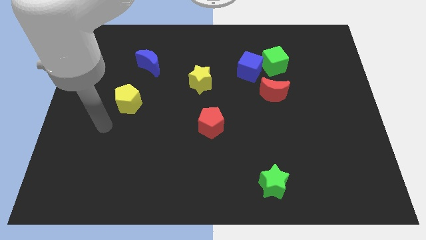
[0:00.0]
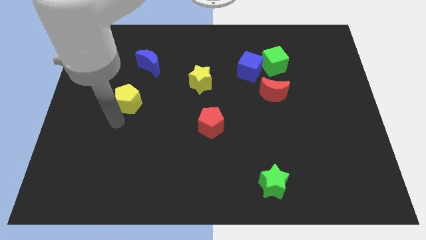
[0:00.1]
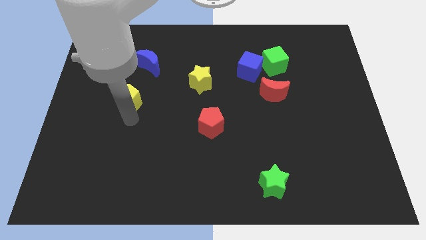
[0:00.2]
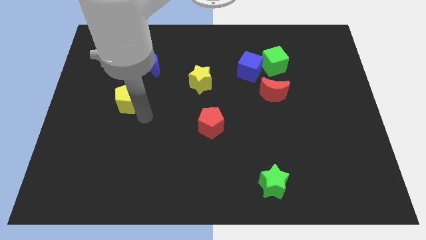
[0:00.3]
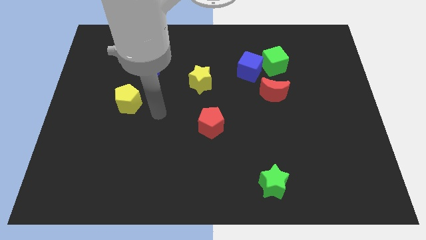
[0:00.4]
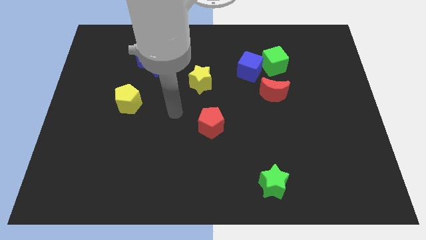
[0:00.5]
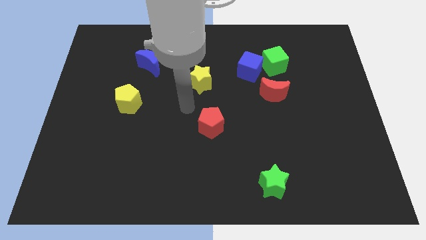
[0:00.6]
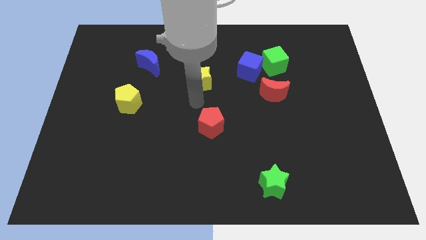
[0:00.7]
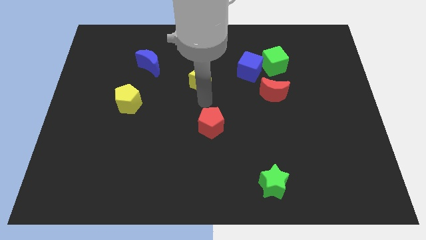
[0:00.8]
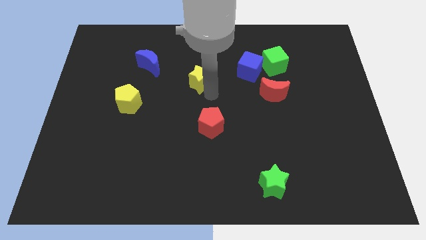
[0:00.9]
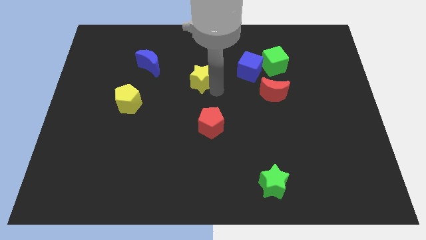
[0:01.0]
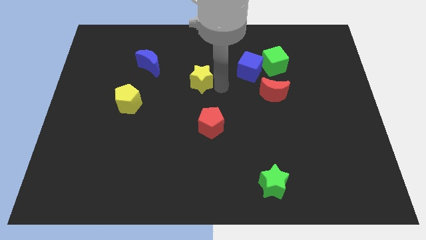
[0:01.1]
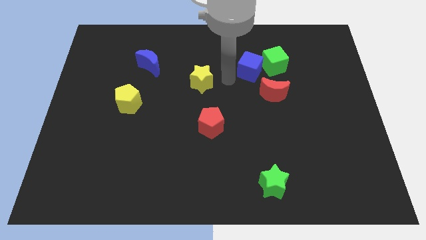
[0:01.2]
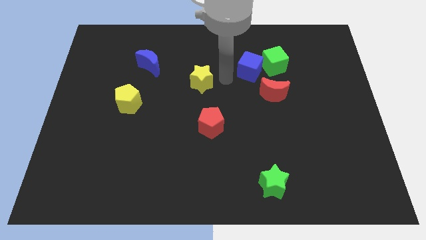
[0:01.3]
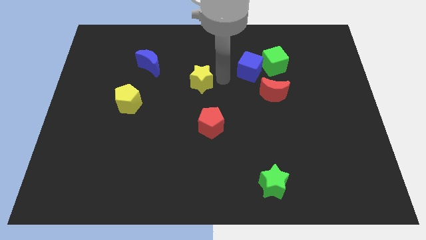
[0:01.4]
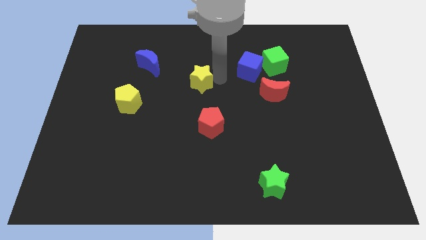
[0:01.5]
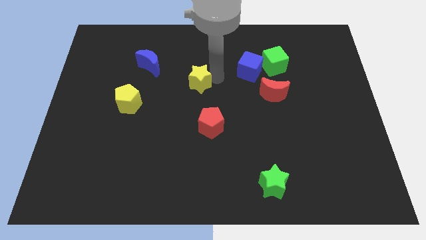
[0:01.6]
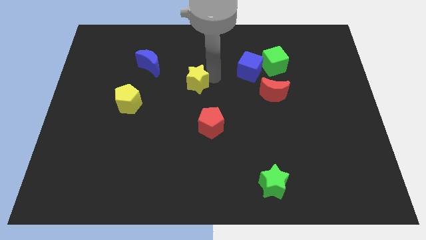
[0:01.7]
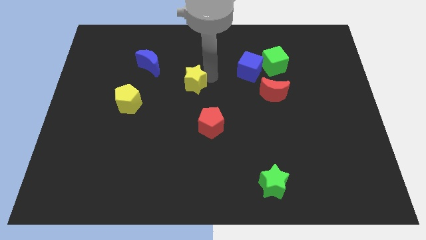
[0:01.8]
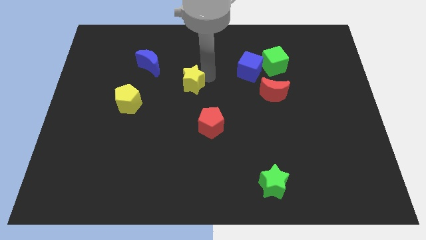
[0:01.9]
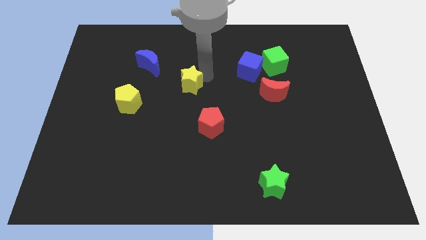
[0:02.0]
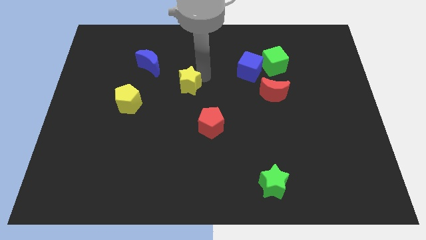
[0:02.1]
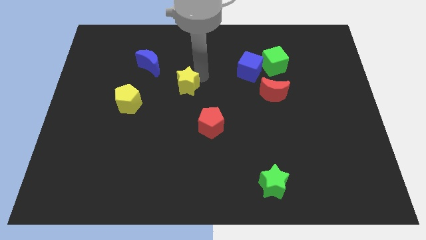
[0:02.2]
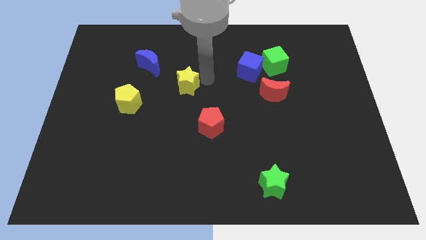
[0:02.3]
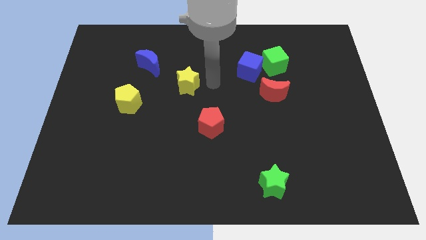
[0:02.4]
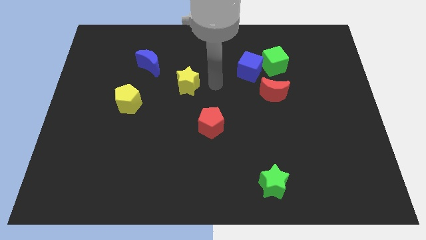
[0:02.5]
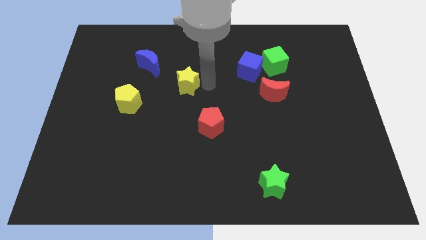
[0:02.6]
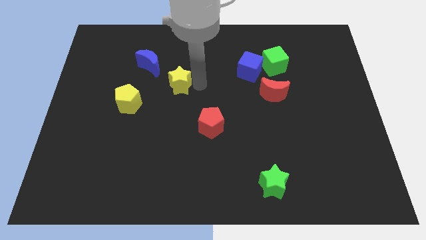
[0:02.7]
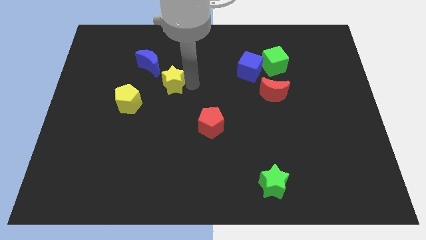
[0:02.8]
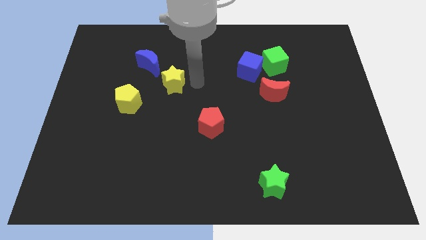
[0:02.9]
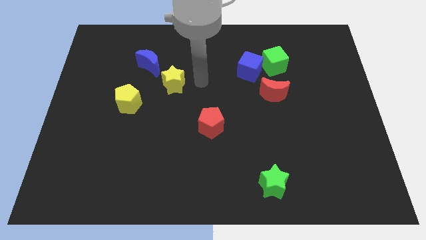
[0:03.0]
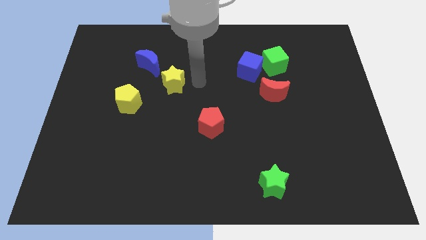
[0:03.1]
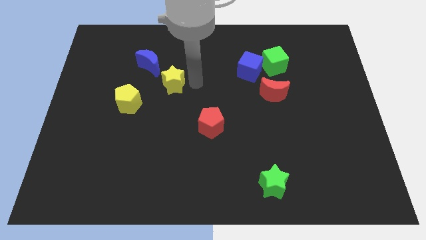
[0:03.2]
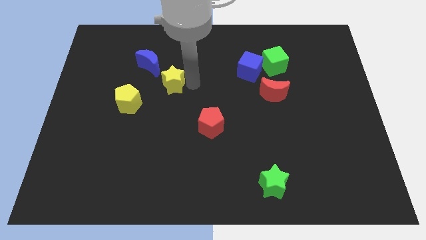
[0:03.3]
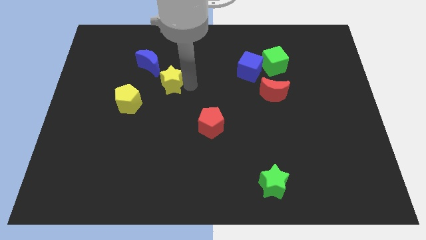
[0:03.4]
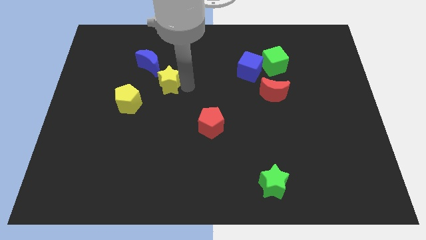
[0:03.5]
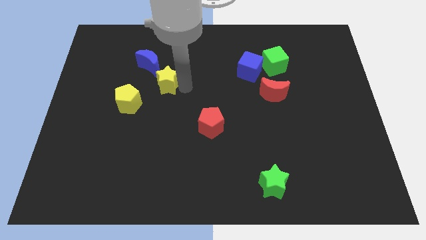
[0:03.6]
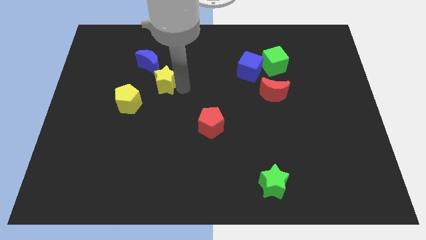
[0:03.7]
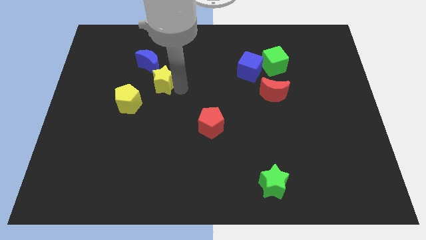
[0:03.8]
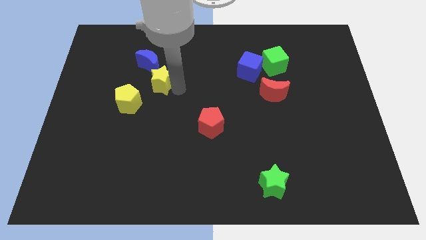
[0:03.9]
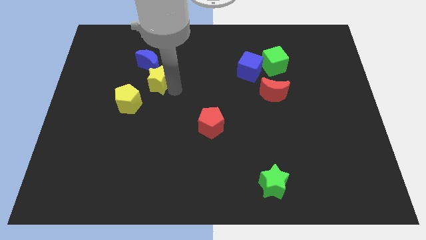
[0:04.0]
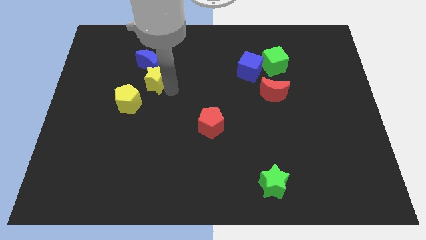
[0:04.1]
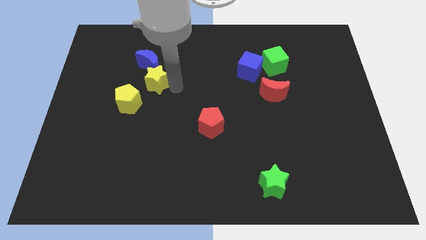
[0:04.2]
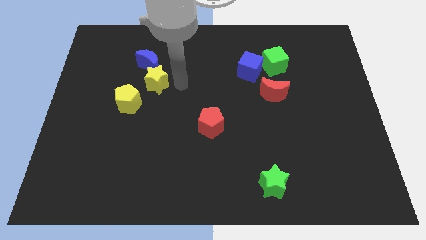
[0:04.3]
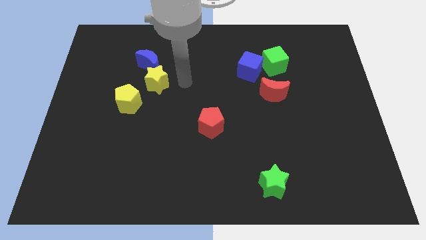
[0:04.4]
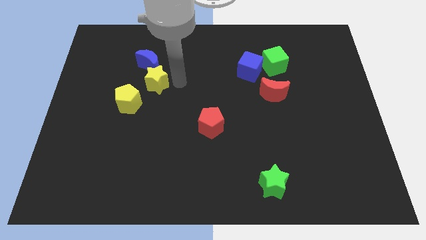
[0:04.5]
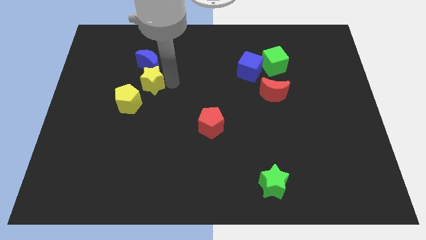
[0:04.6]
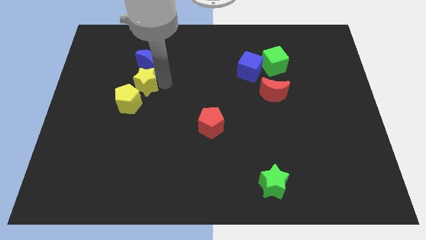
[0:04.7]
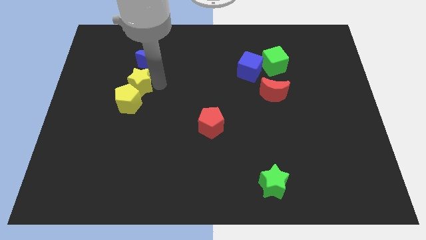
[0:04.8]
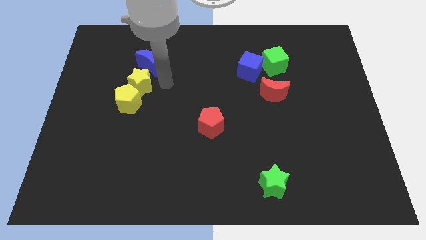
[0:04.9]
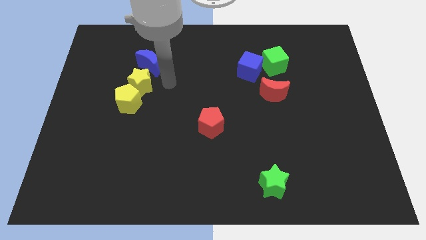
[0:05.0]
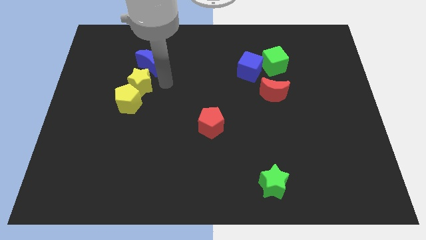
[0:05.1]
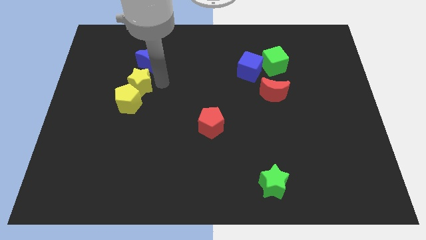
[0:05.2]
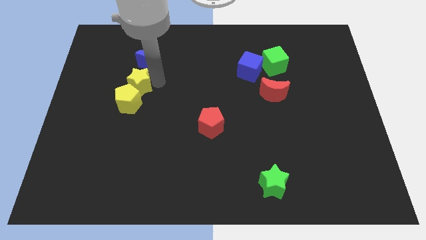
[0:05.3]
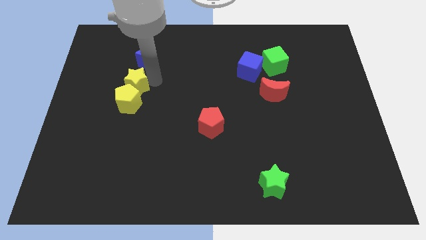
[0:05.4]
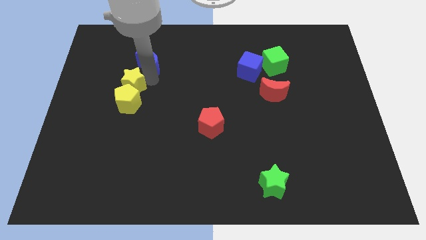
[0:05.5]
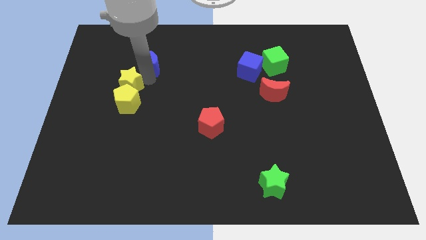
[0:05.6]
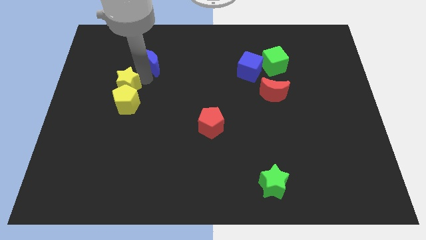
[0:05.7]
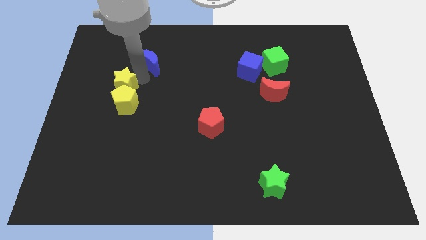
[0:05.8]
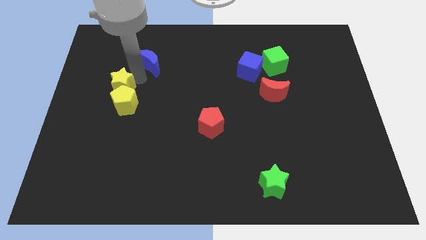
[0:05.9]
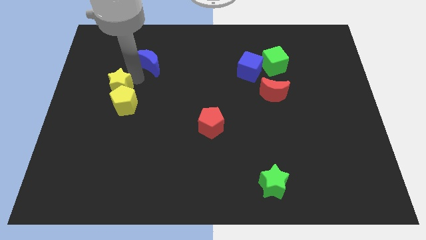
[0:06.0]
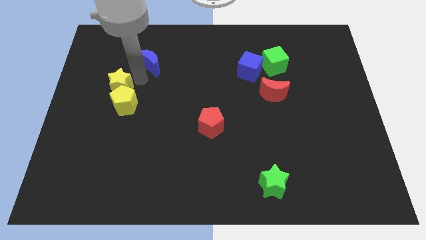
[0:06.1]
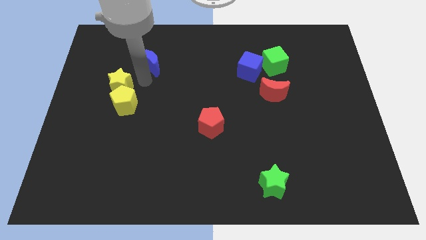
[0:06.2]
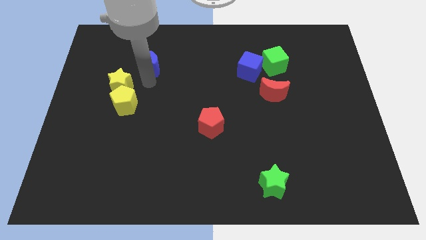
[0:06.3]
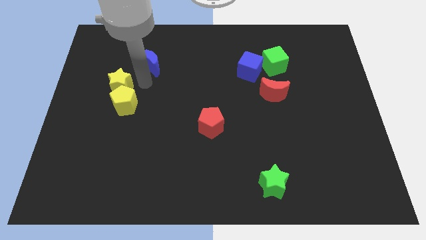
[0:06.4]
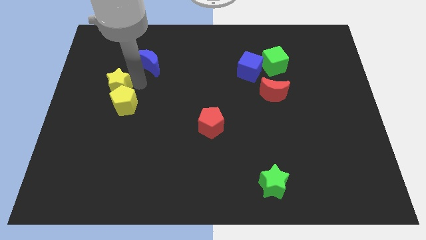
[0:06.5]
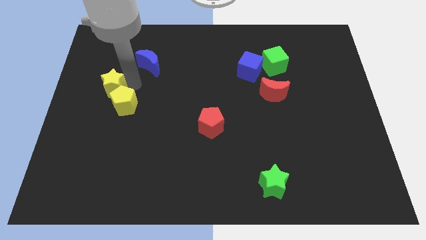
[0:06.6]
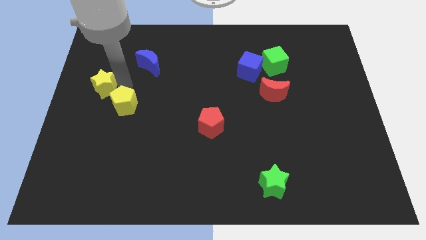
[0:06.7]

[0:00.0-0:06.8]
move the yellow star to the left side
